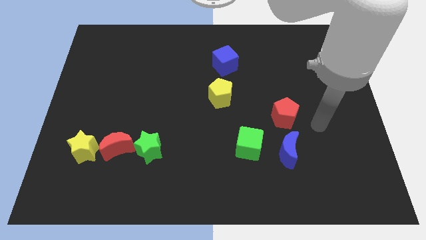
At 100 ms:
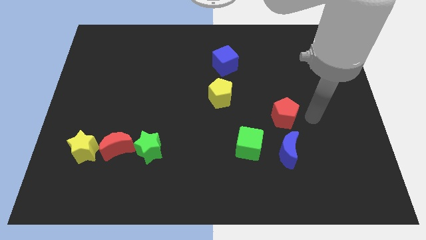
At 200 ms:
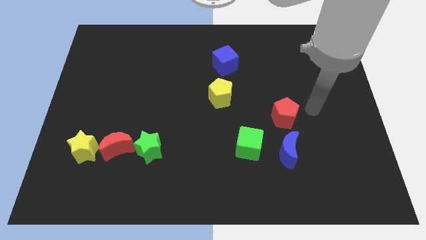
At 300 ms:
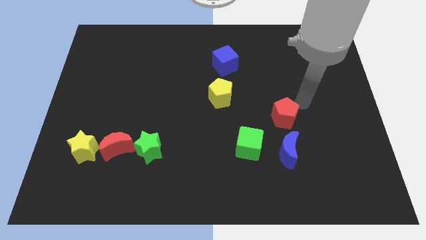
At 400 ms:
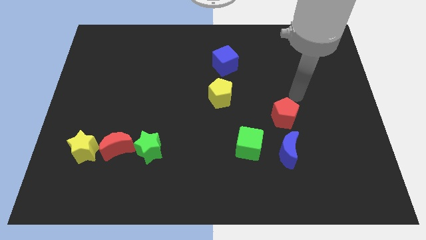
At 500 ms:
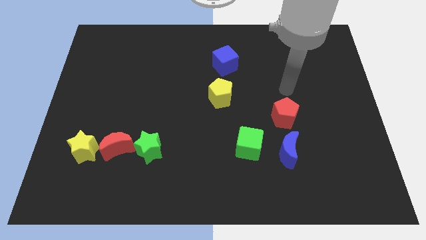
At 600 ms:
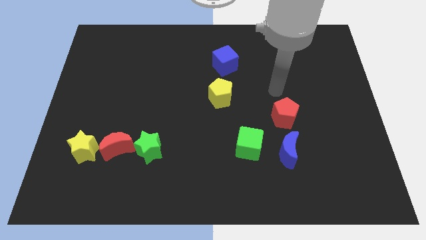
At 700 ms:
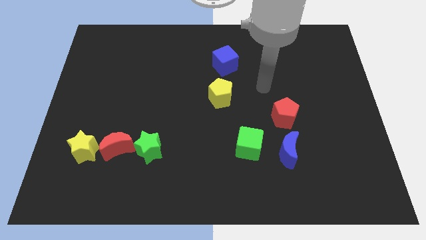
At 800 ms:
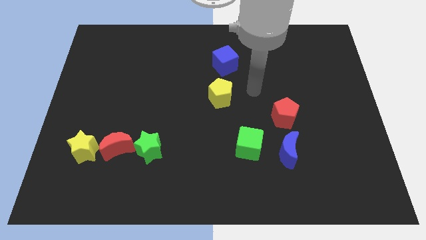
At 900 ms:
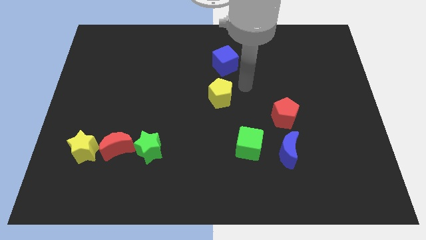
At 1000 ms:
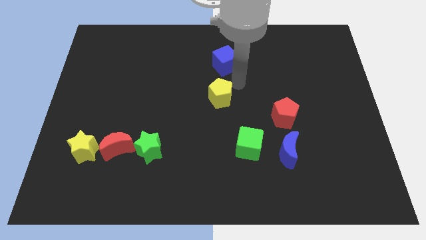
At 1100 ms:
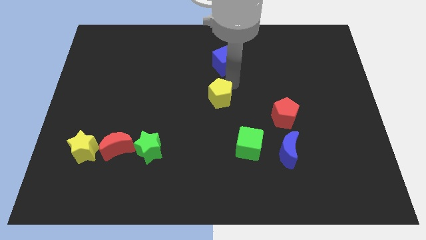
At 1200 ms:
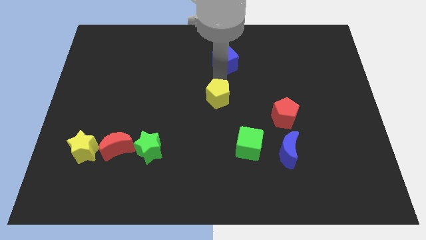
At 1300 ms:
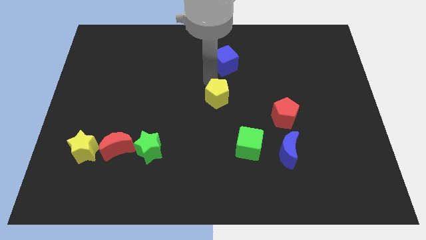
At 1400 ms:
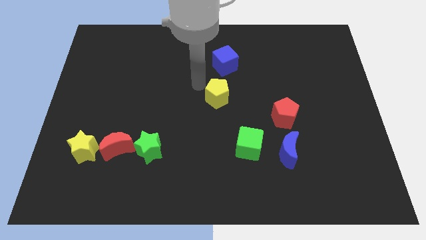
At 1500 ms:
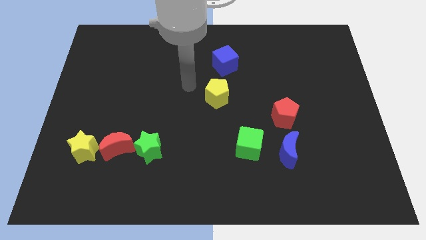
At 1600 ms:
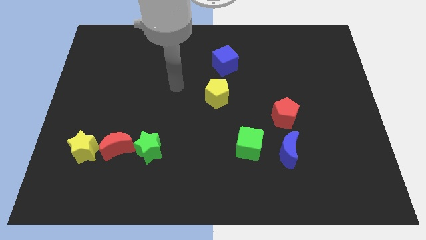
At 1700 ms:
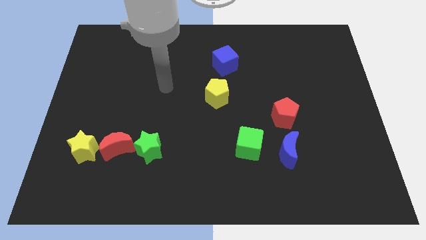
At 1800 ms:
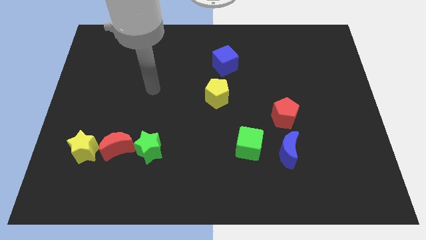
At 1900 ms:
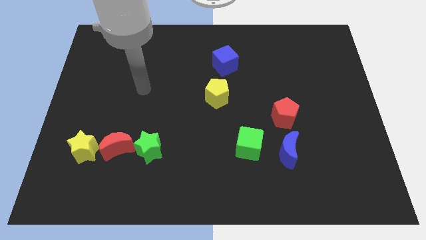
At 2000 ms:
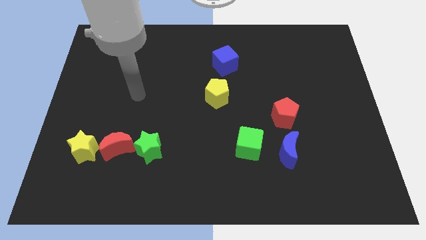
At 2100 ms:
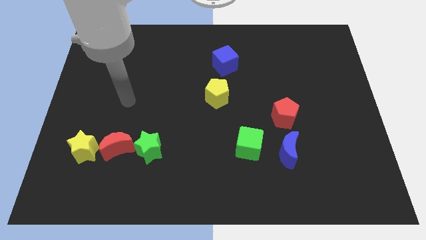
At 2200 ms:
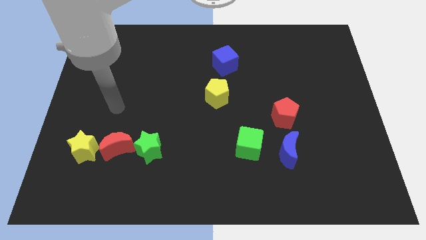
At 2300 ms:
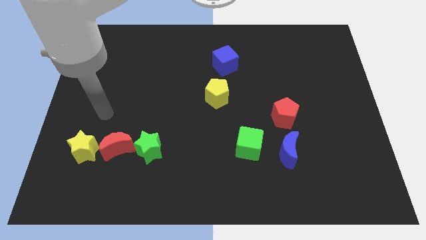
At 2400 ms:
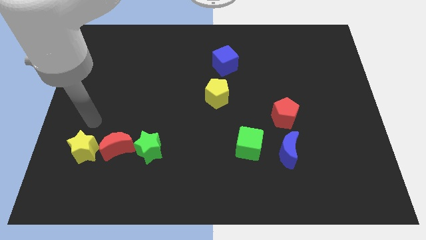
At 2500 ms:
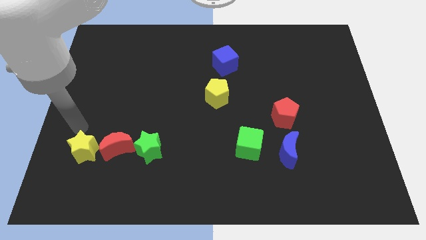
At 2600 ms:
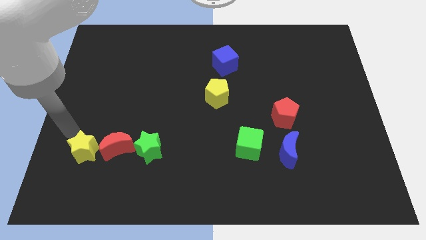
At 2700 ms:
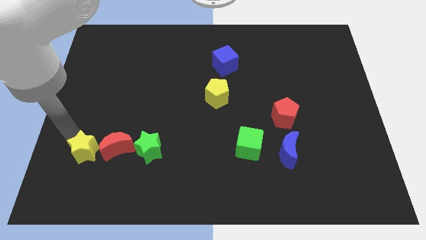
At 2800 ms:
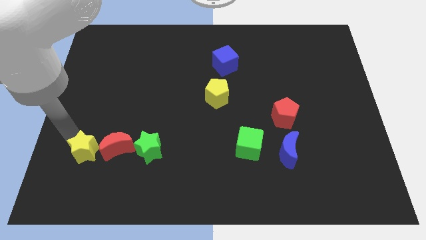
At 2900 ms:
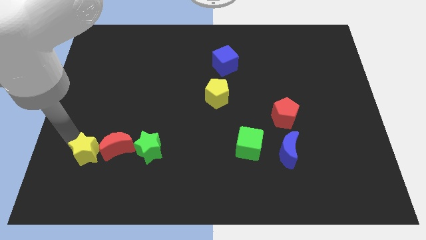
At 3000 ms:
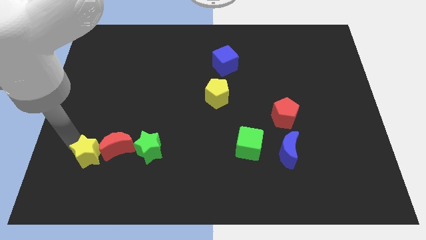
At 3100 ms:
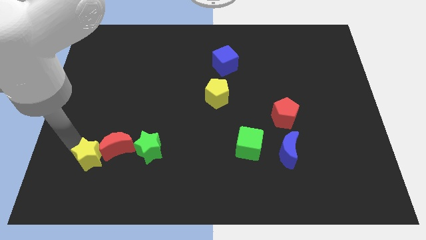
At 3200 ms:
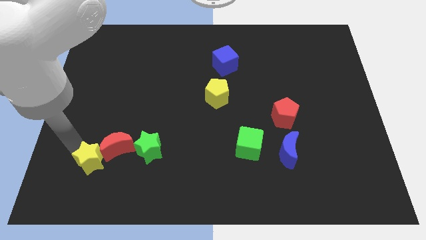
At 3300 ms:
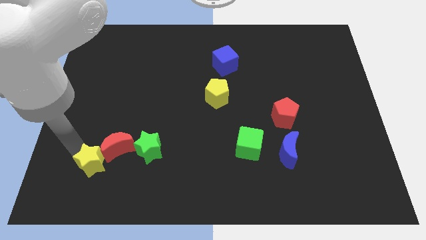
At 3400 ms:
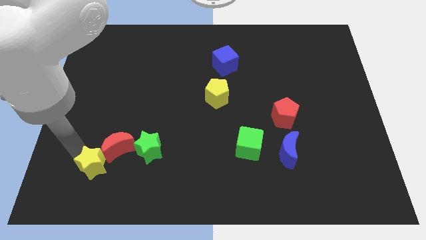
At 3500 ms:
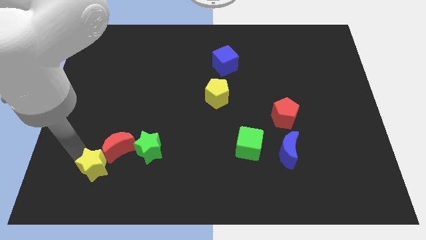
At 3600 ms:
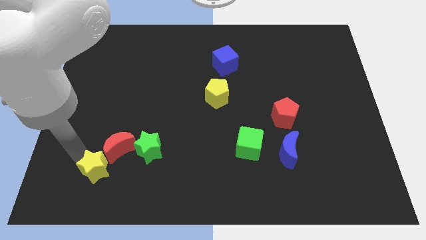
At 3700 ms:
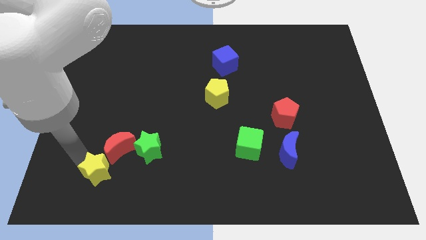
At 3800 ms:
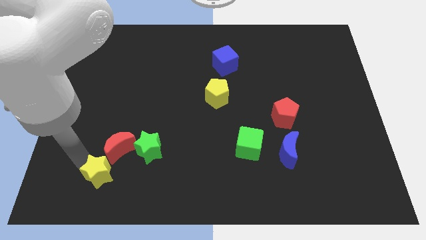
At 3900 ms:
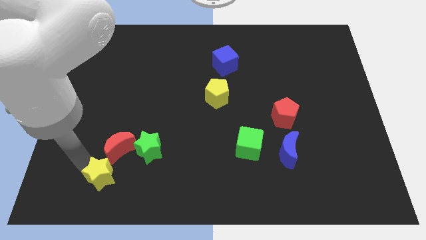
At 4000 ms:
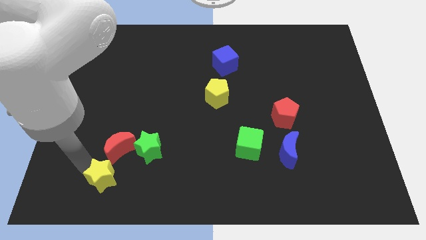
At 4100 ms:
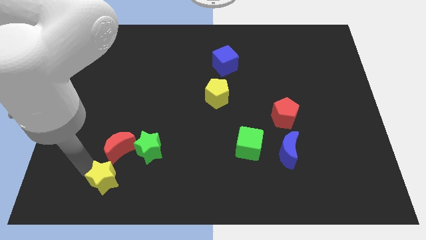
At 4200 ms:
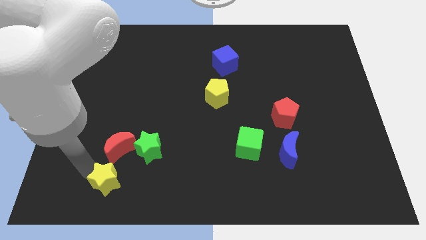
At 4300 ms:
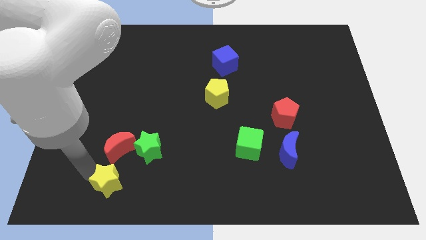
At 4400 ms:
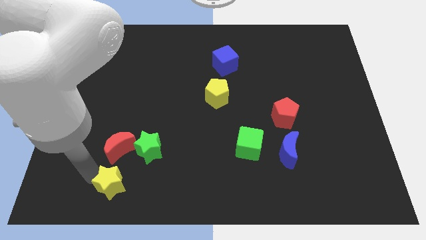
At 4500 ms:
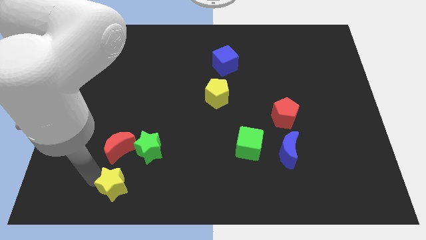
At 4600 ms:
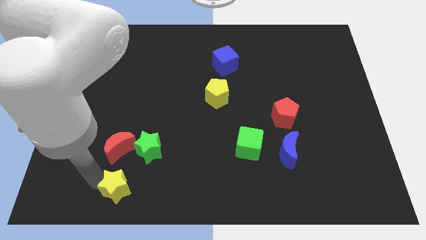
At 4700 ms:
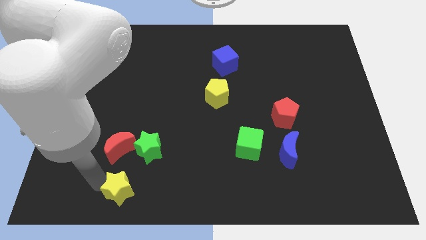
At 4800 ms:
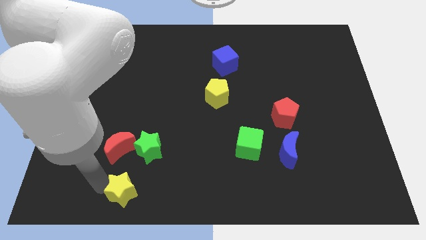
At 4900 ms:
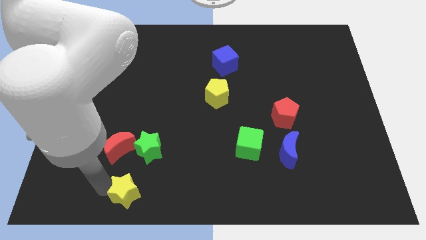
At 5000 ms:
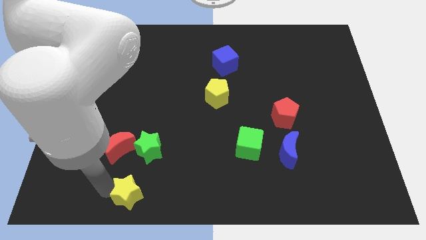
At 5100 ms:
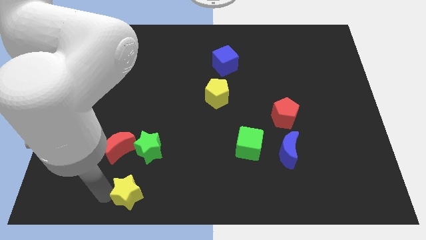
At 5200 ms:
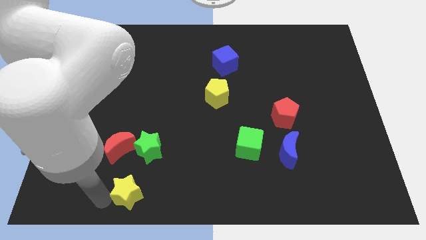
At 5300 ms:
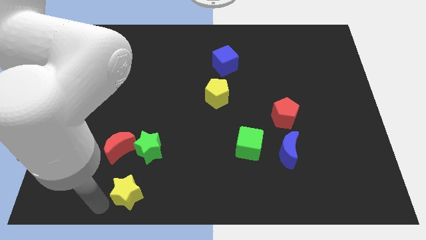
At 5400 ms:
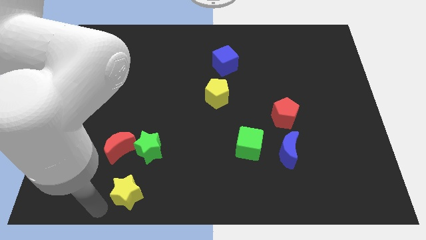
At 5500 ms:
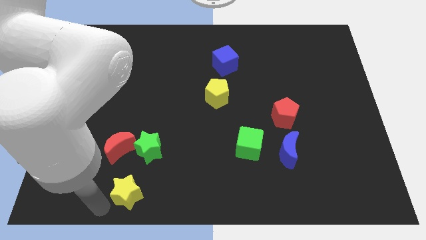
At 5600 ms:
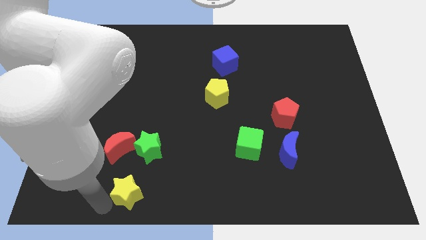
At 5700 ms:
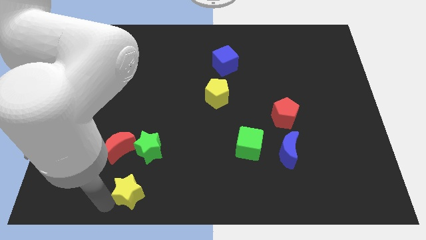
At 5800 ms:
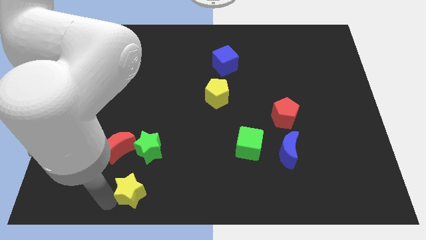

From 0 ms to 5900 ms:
move the yellow star a bit to the right

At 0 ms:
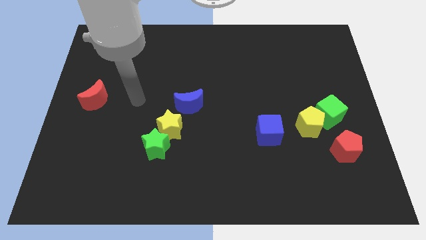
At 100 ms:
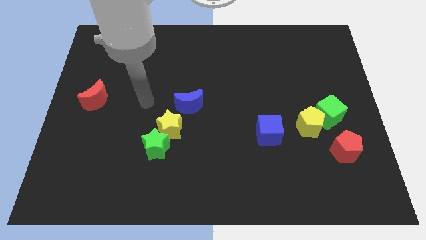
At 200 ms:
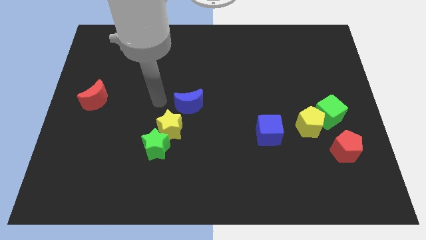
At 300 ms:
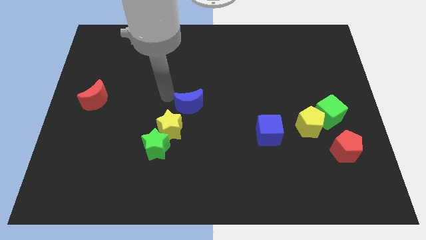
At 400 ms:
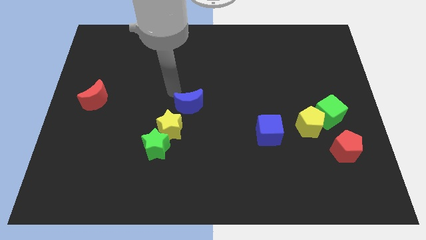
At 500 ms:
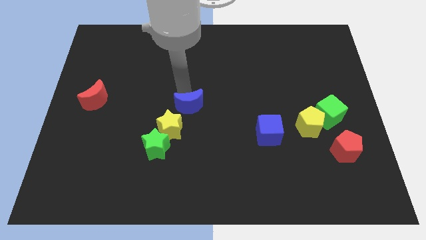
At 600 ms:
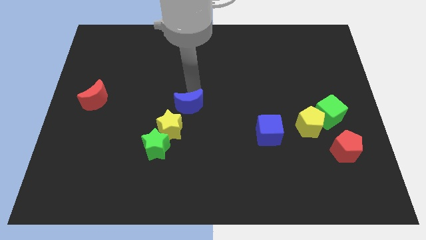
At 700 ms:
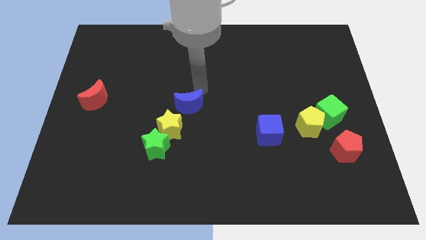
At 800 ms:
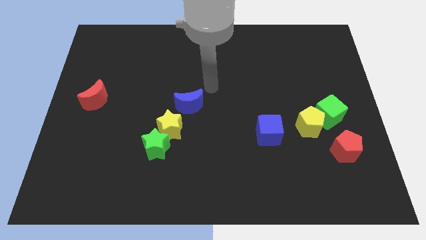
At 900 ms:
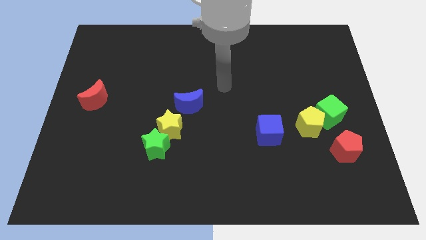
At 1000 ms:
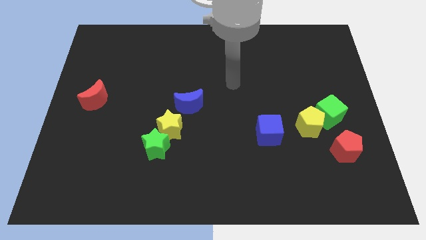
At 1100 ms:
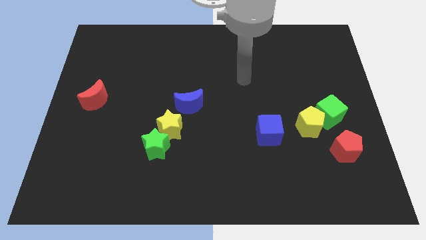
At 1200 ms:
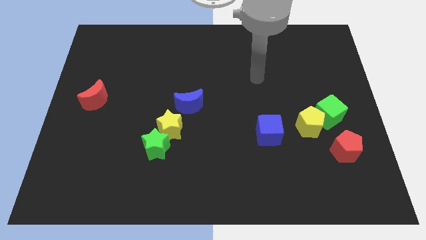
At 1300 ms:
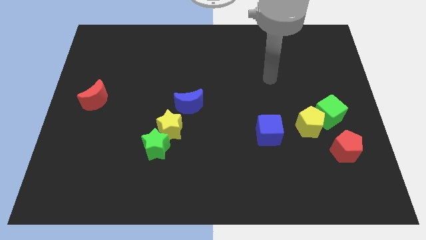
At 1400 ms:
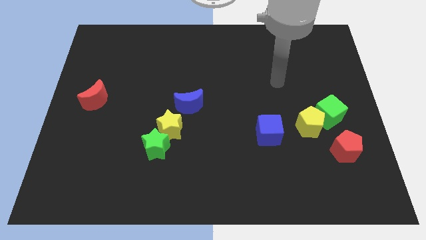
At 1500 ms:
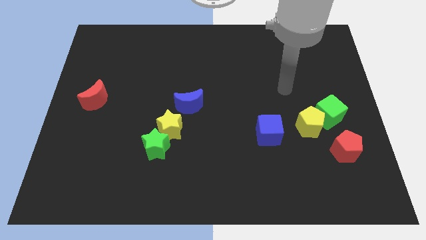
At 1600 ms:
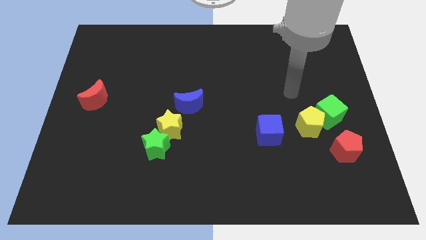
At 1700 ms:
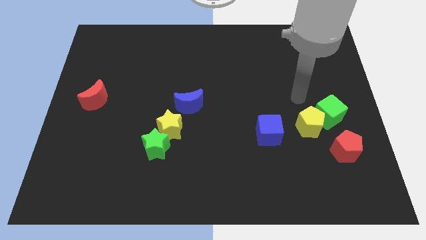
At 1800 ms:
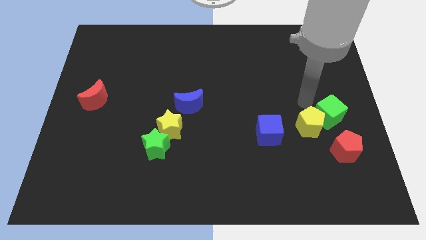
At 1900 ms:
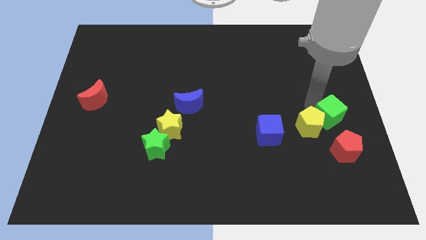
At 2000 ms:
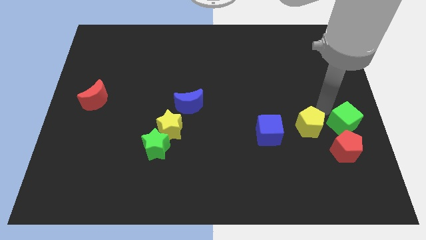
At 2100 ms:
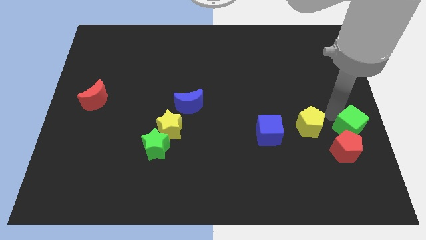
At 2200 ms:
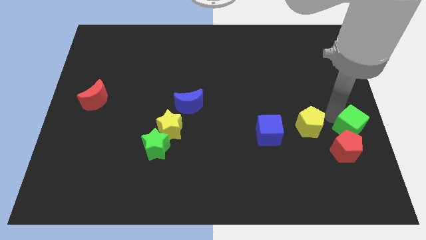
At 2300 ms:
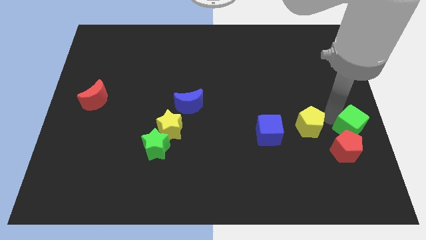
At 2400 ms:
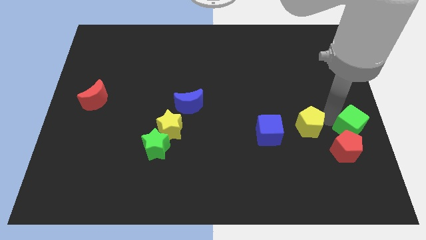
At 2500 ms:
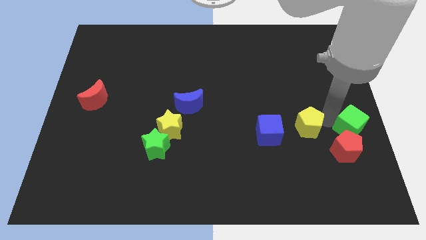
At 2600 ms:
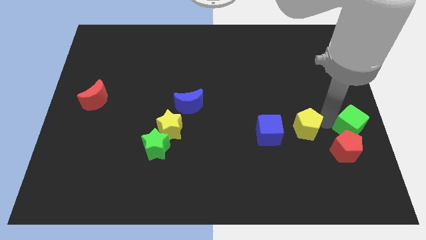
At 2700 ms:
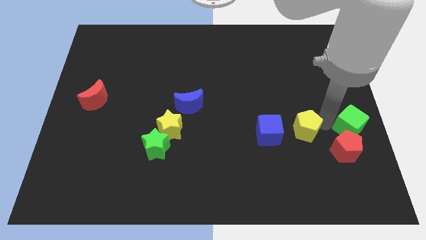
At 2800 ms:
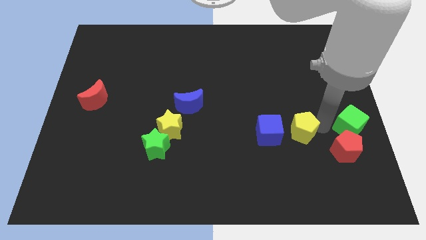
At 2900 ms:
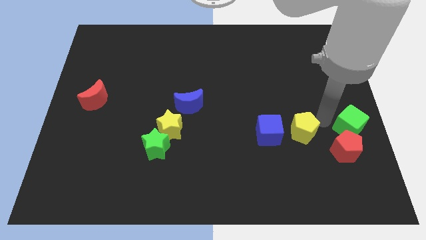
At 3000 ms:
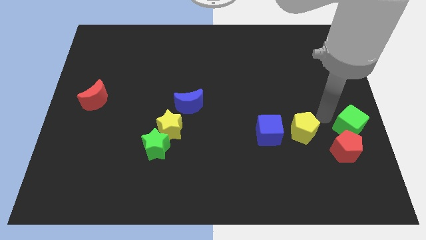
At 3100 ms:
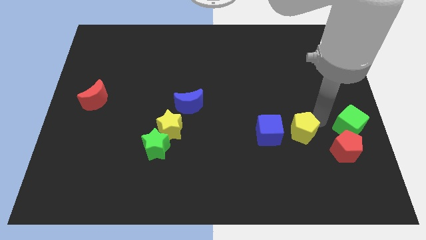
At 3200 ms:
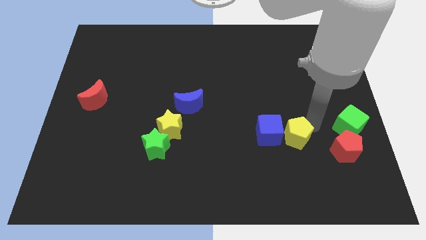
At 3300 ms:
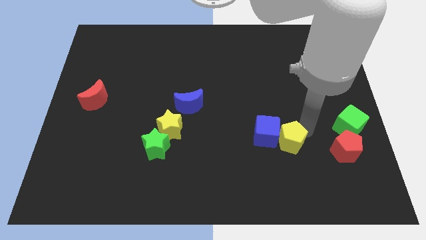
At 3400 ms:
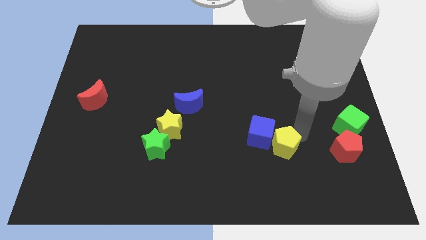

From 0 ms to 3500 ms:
slightly push the yellow pentagon downwards and left
